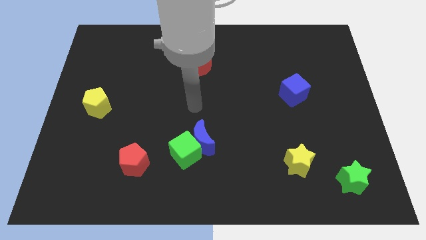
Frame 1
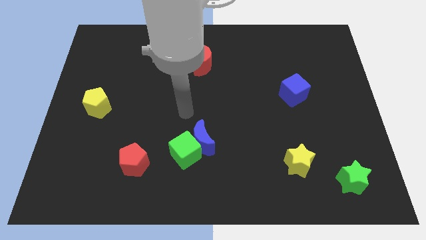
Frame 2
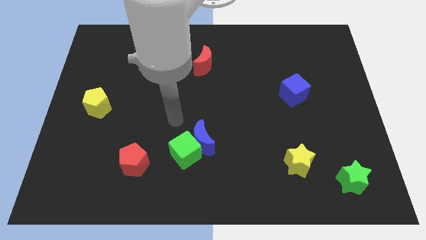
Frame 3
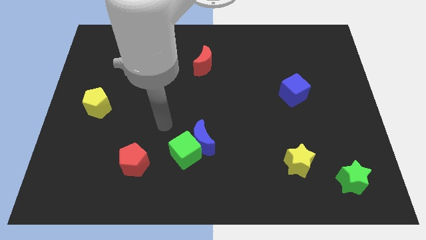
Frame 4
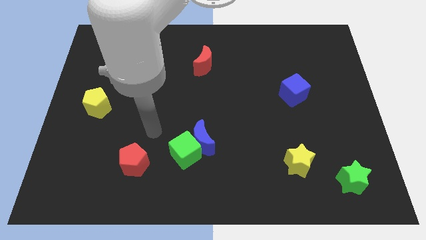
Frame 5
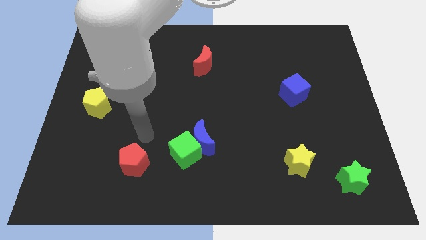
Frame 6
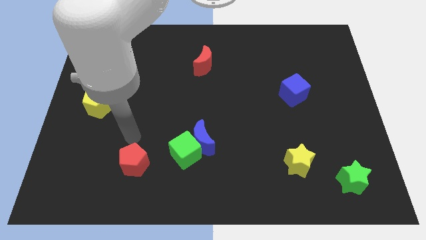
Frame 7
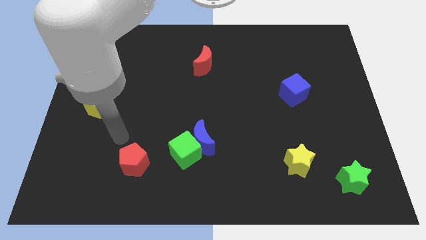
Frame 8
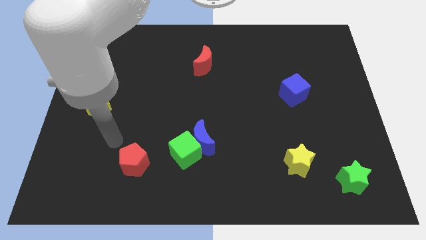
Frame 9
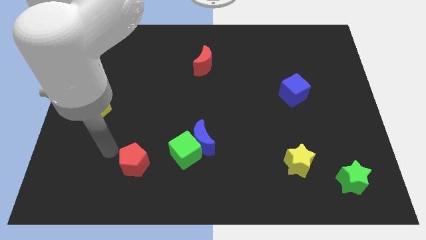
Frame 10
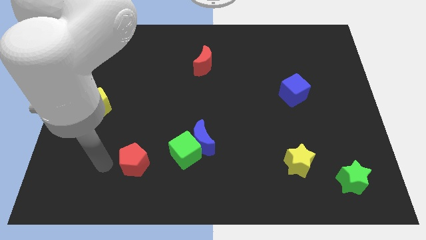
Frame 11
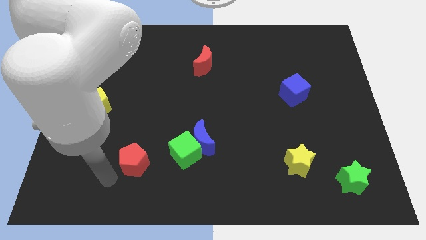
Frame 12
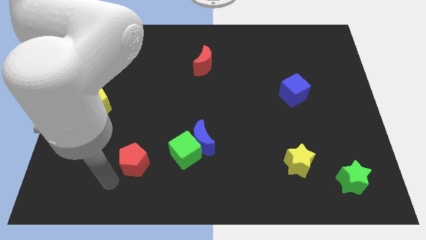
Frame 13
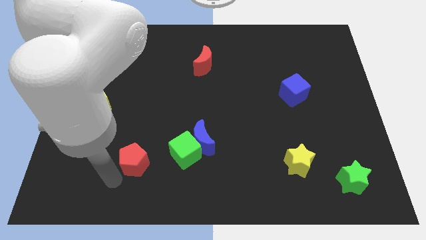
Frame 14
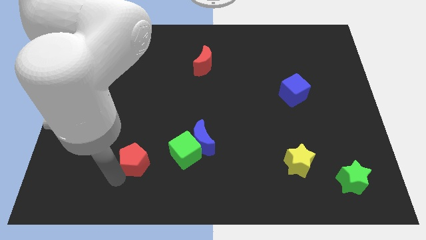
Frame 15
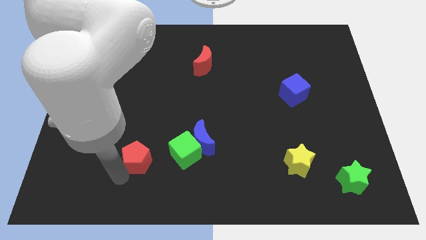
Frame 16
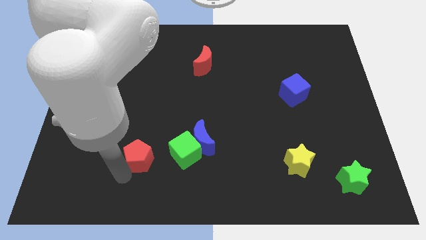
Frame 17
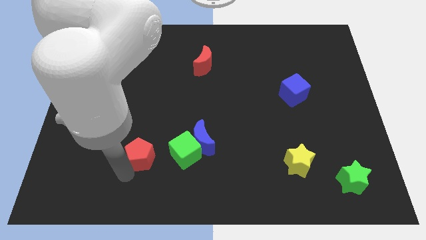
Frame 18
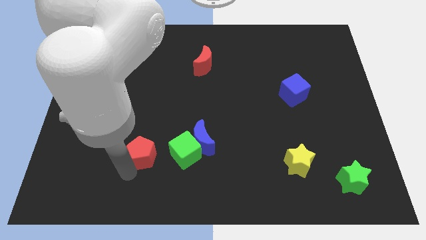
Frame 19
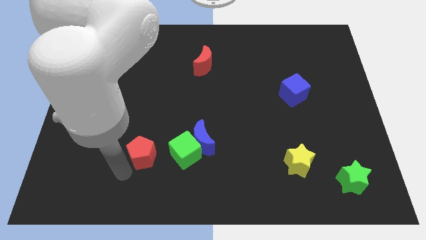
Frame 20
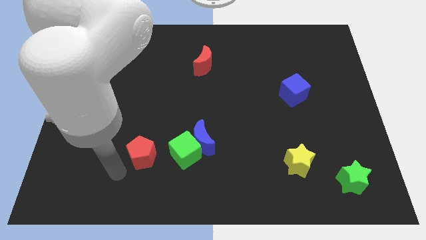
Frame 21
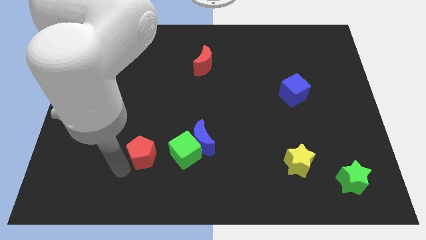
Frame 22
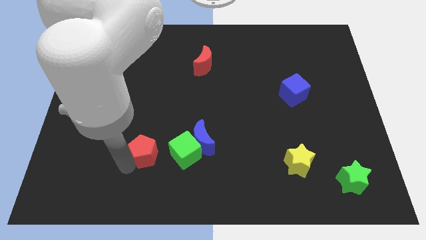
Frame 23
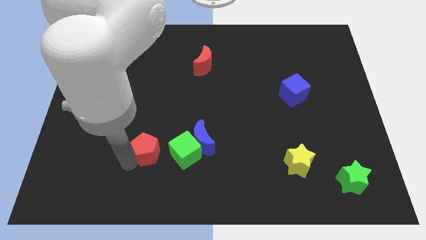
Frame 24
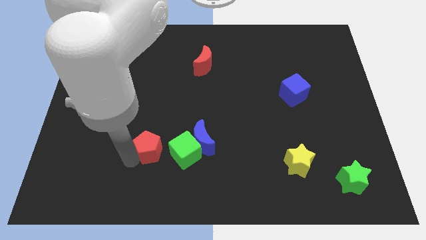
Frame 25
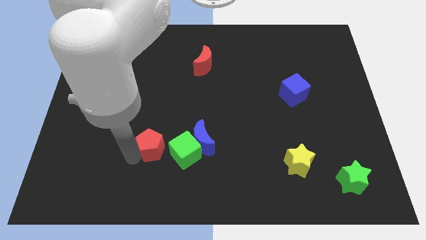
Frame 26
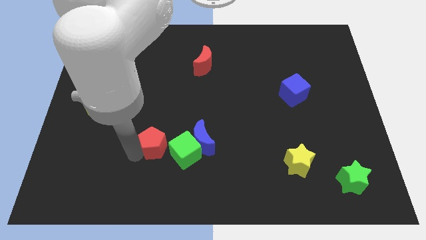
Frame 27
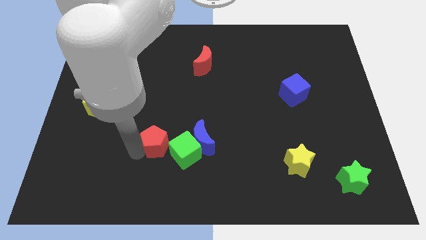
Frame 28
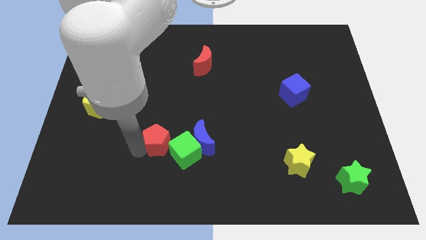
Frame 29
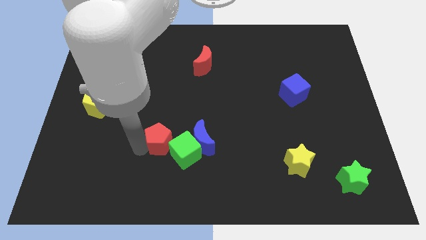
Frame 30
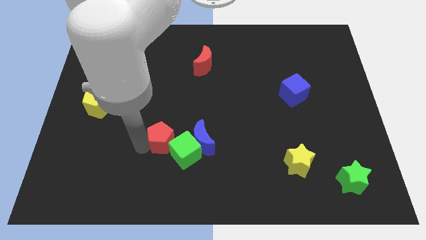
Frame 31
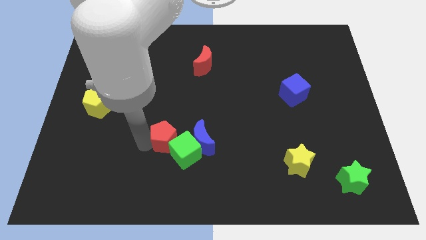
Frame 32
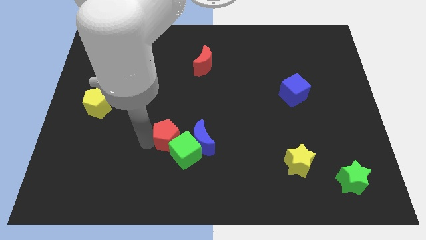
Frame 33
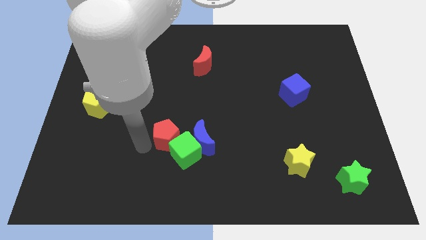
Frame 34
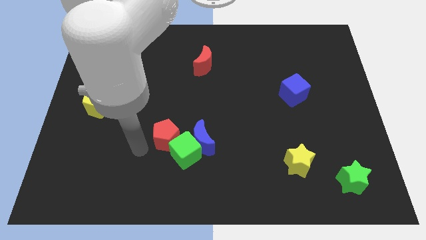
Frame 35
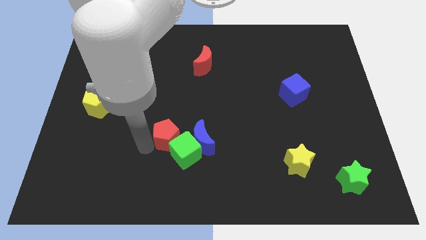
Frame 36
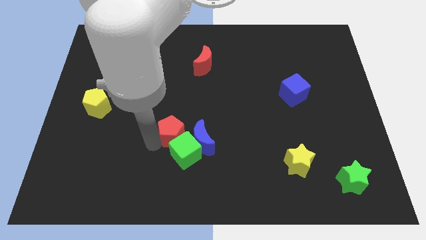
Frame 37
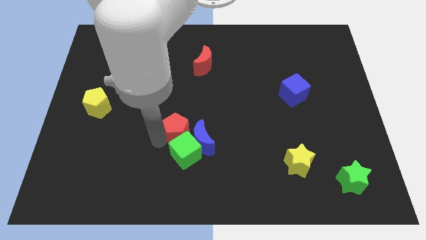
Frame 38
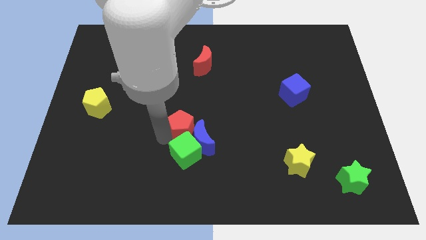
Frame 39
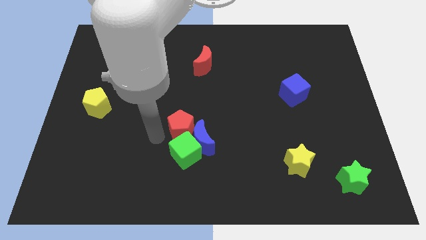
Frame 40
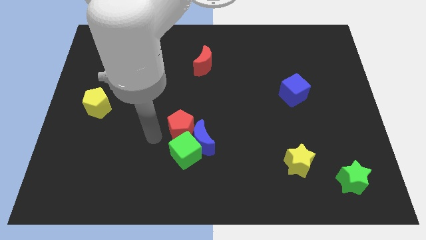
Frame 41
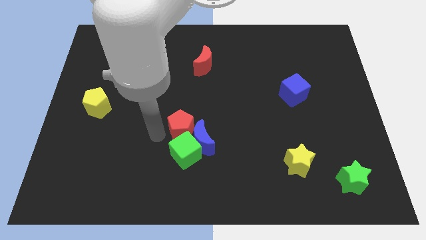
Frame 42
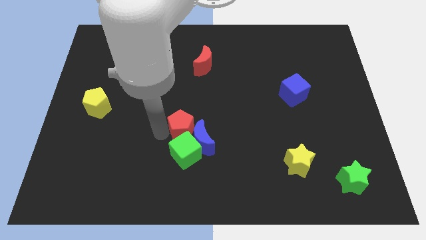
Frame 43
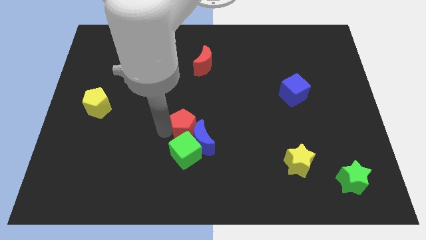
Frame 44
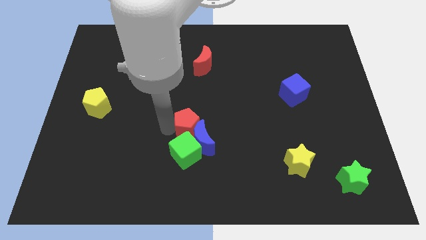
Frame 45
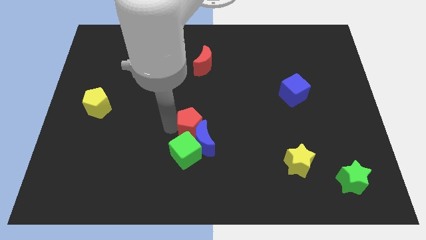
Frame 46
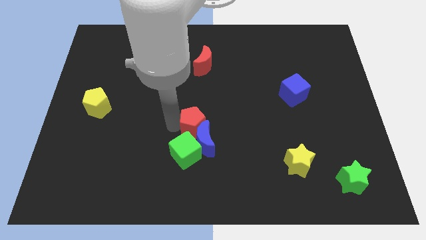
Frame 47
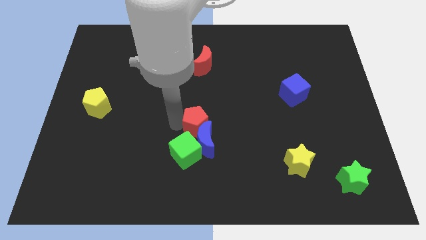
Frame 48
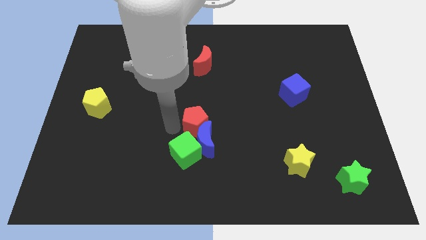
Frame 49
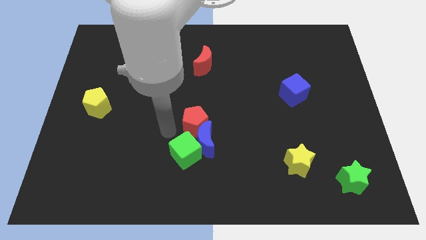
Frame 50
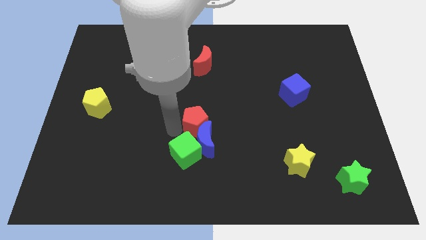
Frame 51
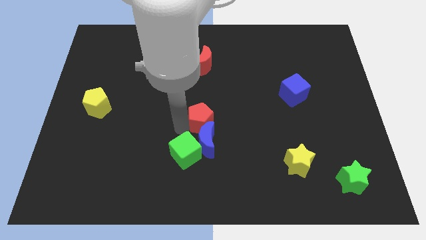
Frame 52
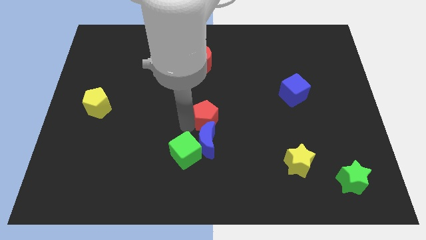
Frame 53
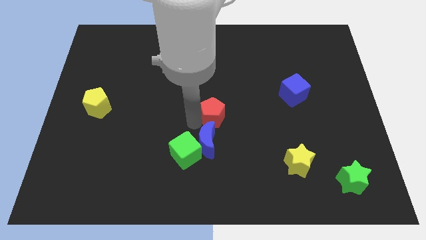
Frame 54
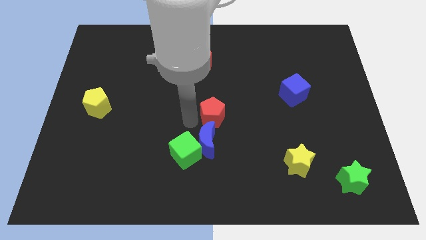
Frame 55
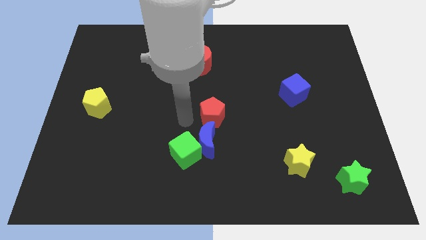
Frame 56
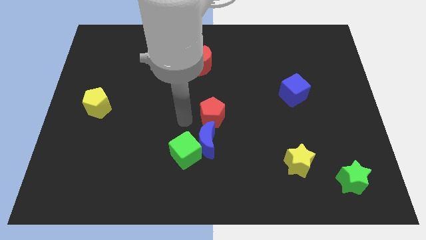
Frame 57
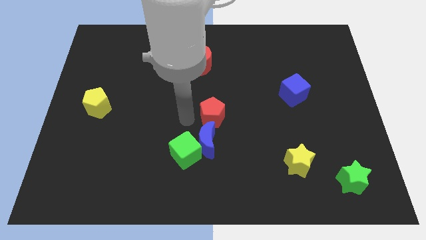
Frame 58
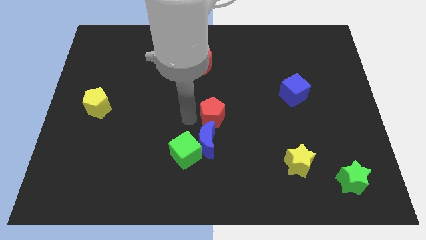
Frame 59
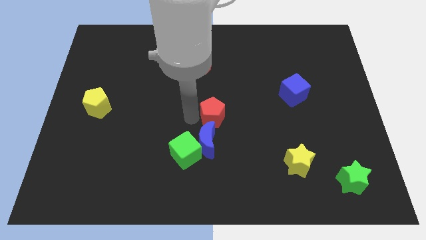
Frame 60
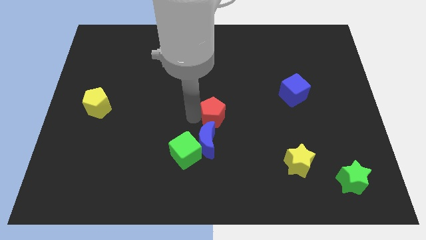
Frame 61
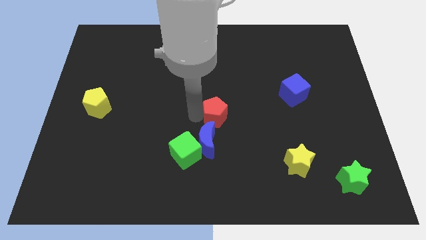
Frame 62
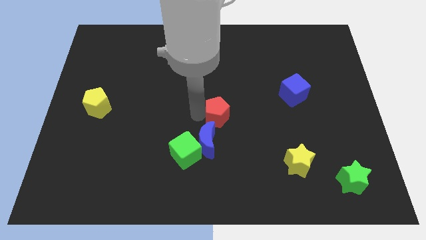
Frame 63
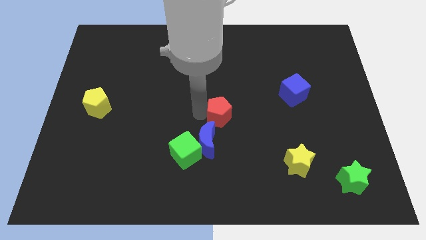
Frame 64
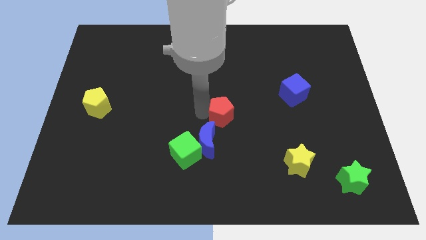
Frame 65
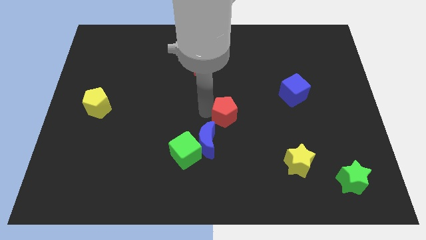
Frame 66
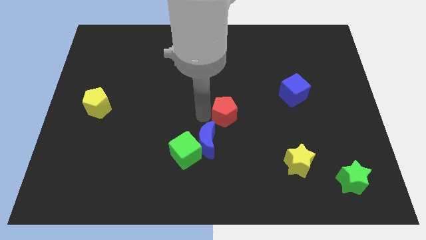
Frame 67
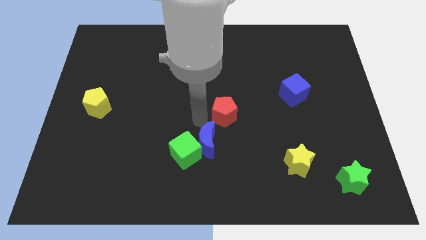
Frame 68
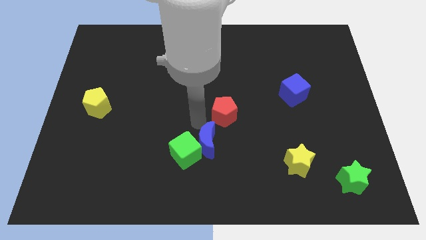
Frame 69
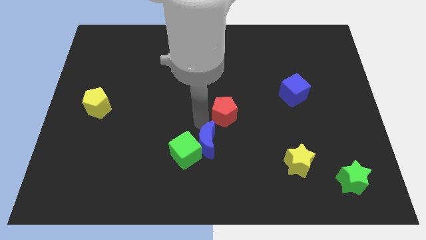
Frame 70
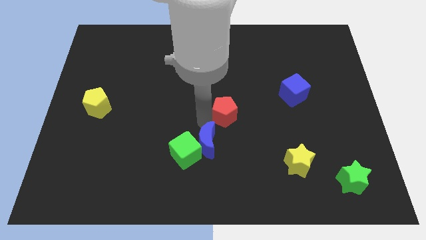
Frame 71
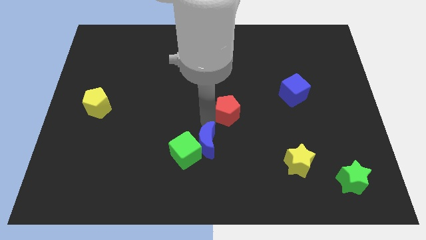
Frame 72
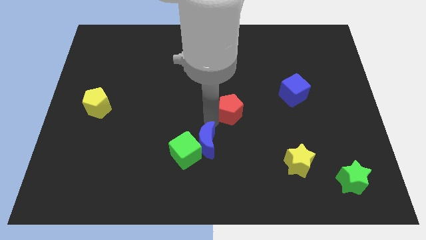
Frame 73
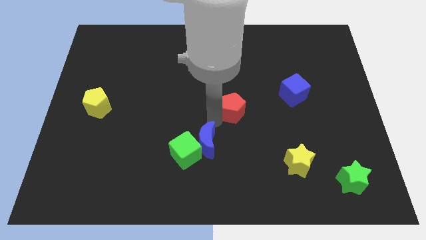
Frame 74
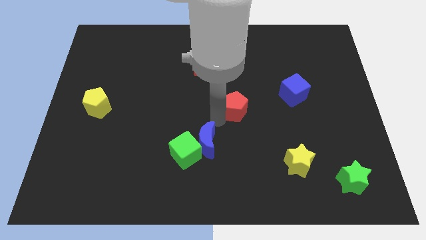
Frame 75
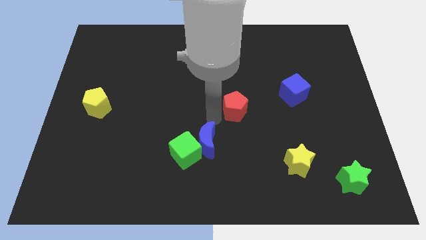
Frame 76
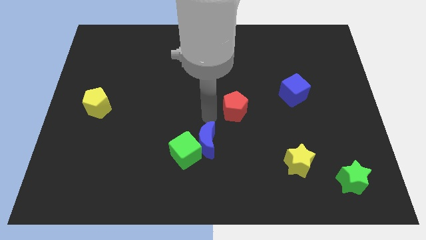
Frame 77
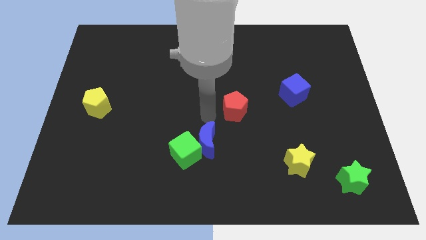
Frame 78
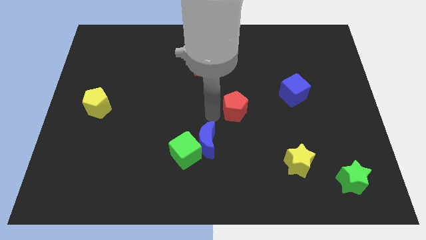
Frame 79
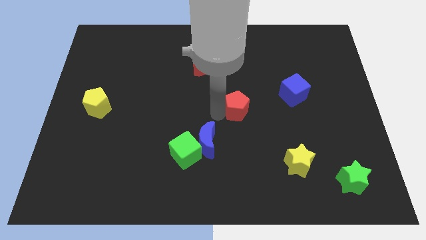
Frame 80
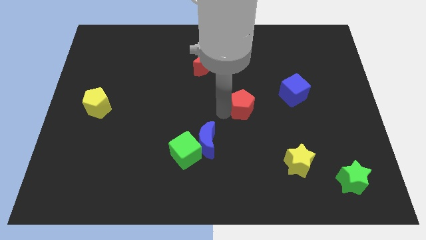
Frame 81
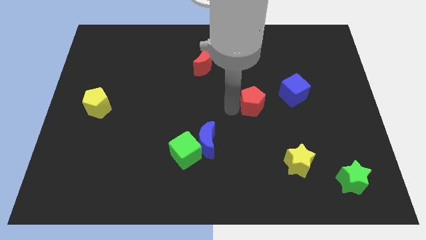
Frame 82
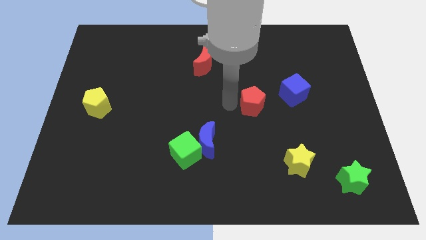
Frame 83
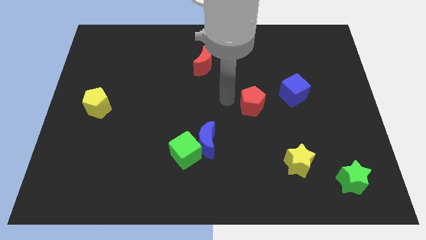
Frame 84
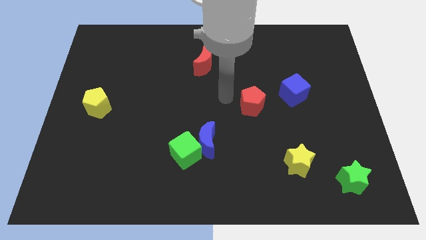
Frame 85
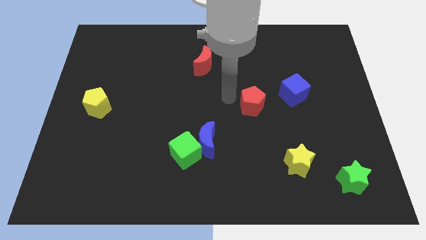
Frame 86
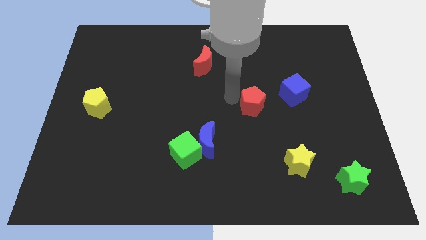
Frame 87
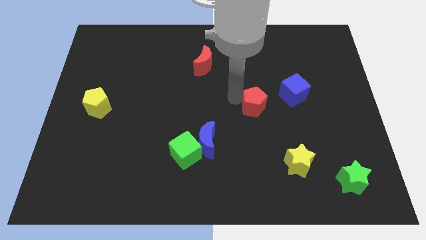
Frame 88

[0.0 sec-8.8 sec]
put the red pentagon to the bottom left side of the blue cube
